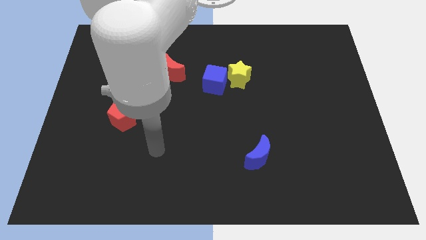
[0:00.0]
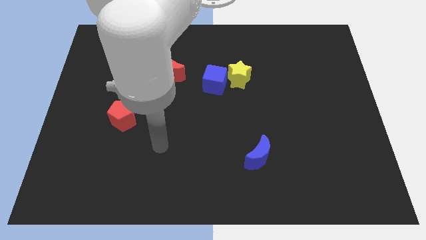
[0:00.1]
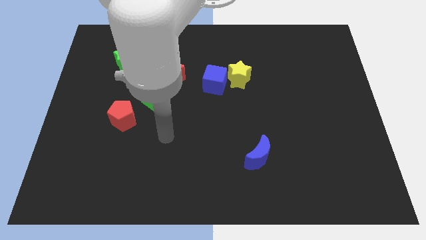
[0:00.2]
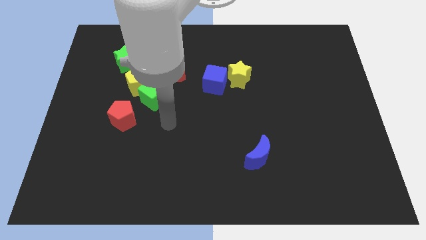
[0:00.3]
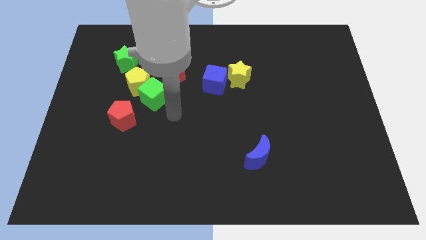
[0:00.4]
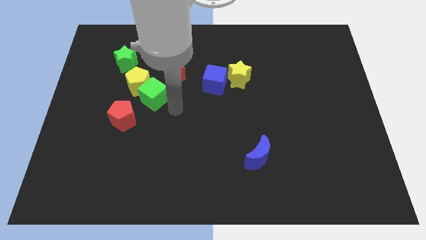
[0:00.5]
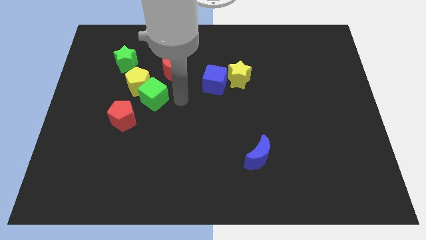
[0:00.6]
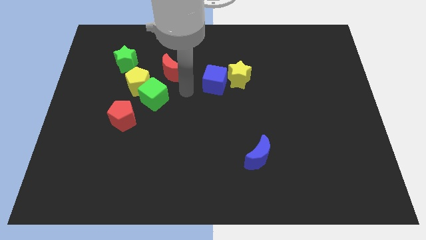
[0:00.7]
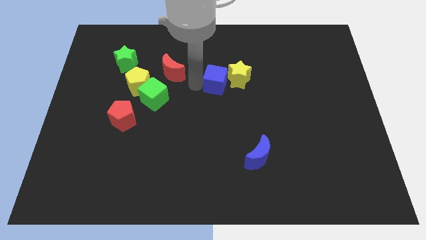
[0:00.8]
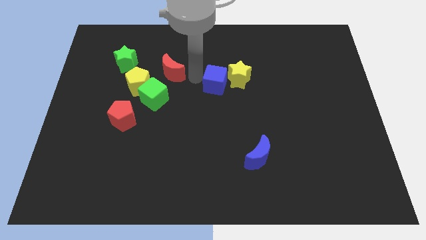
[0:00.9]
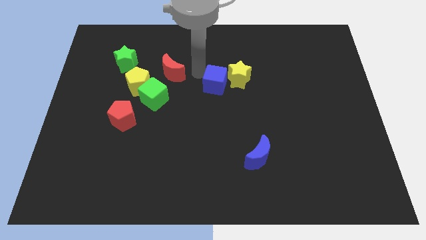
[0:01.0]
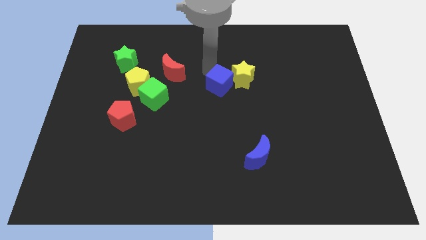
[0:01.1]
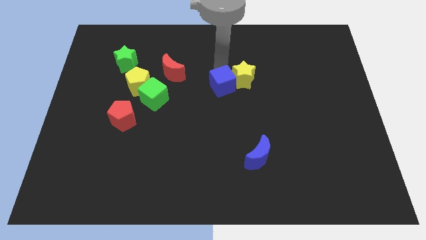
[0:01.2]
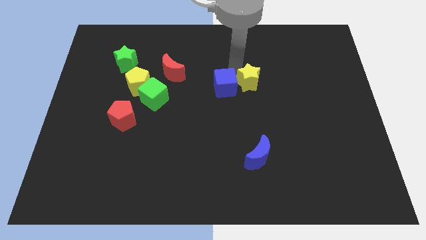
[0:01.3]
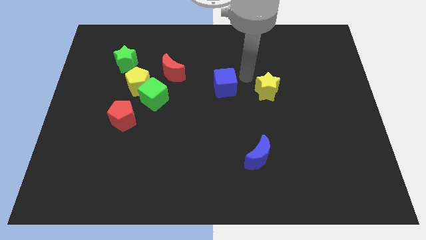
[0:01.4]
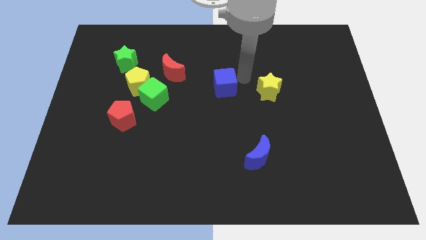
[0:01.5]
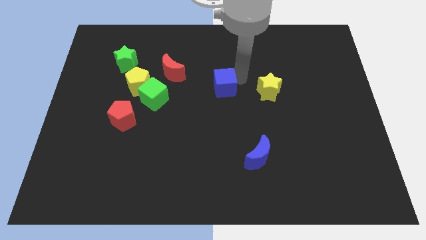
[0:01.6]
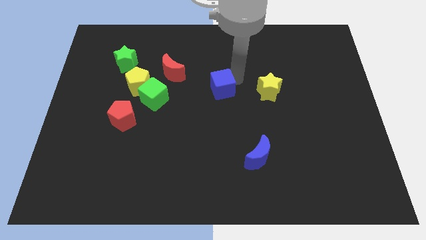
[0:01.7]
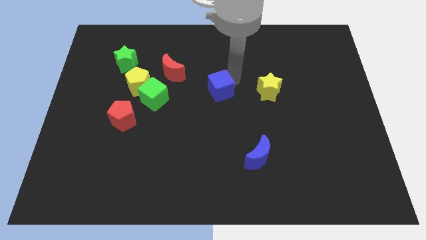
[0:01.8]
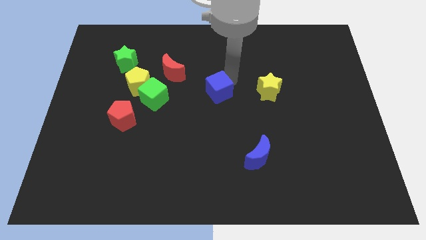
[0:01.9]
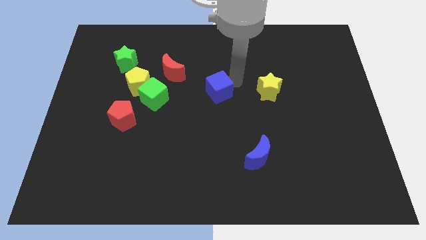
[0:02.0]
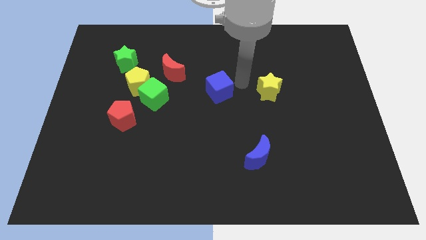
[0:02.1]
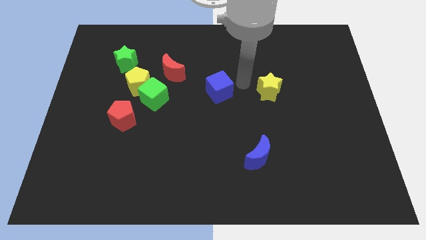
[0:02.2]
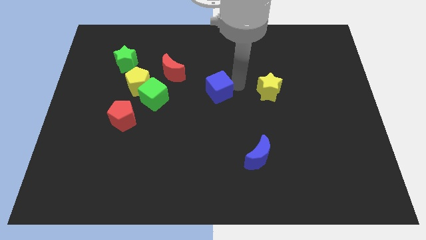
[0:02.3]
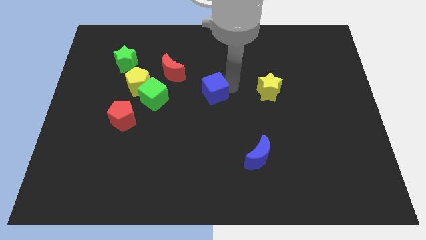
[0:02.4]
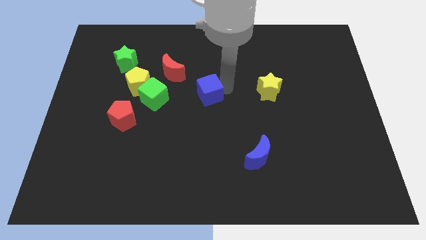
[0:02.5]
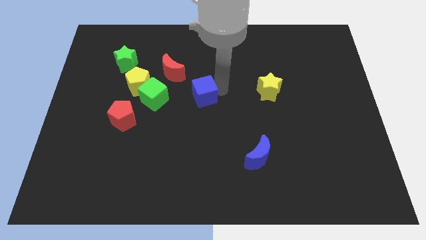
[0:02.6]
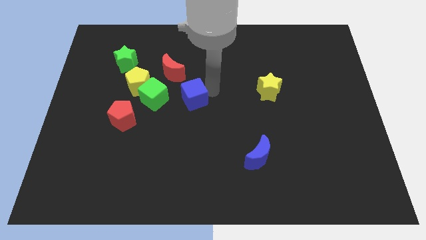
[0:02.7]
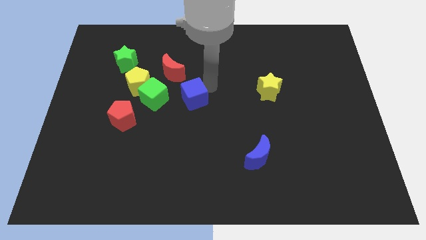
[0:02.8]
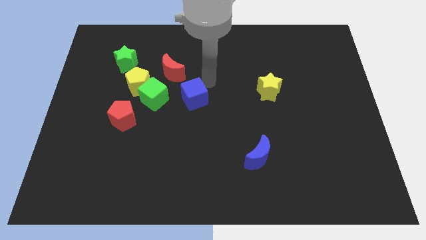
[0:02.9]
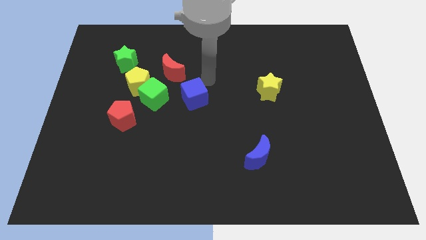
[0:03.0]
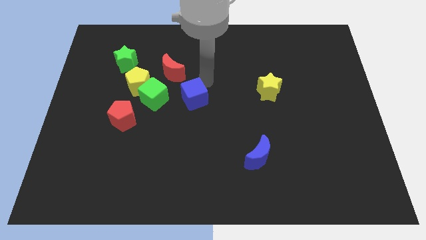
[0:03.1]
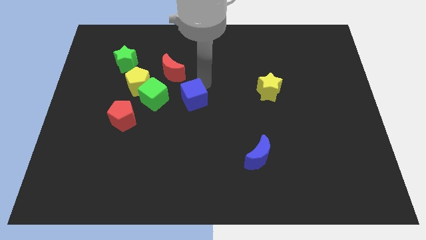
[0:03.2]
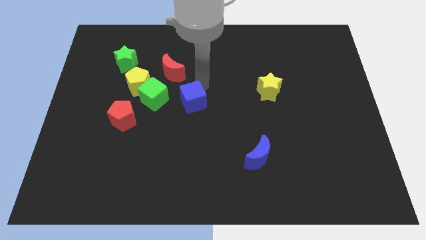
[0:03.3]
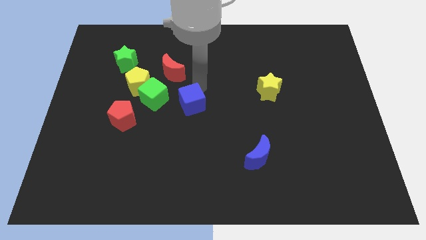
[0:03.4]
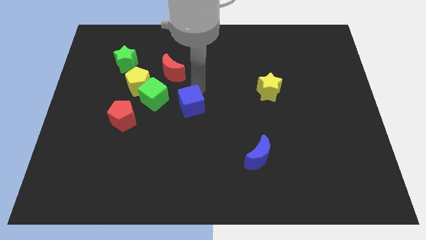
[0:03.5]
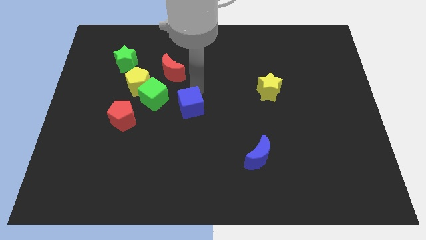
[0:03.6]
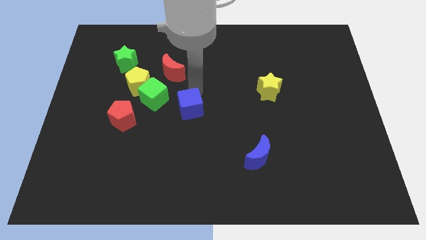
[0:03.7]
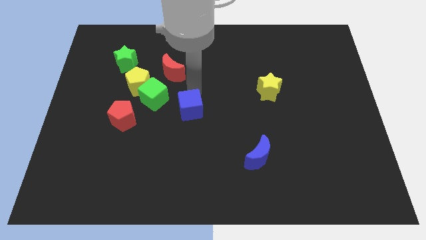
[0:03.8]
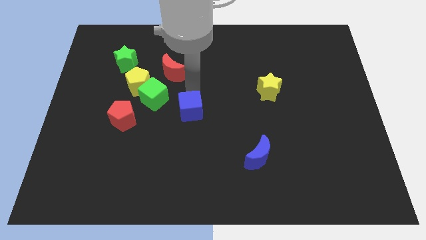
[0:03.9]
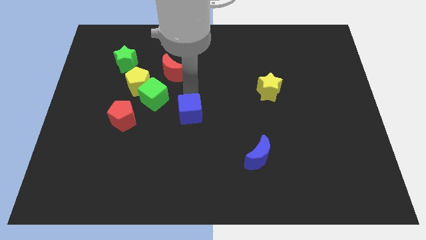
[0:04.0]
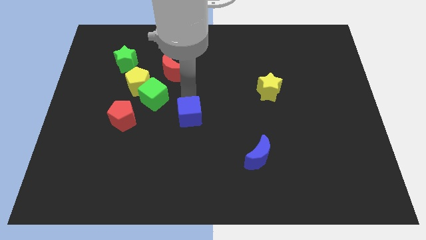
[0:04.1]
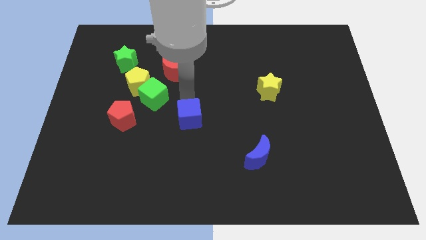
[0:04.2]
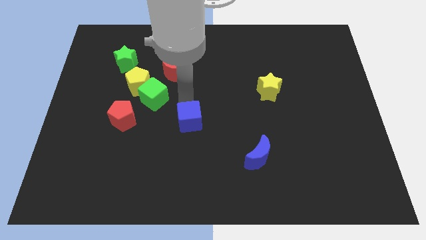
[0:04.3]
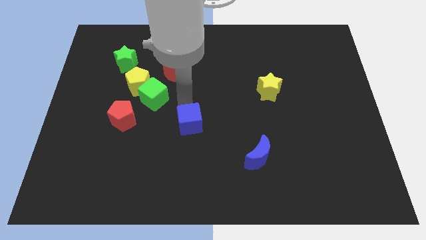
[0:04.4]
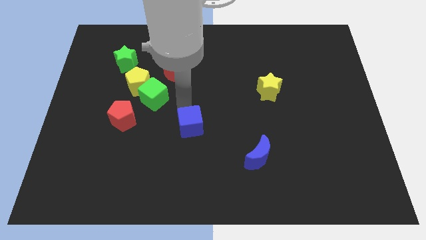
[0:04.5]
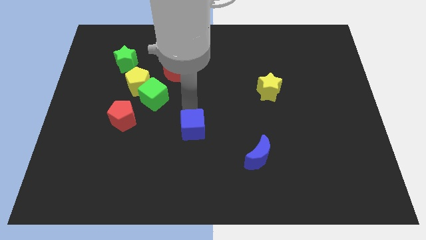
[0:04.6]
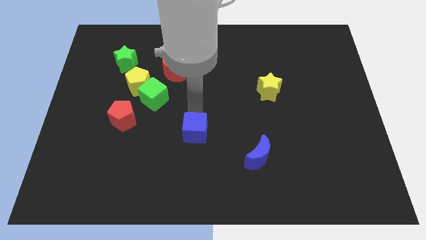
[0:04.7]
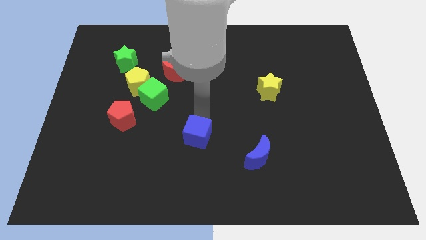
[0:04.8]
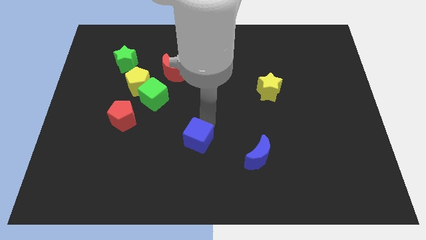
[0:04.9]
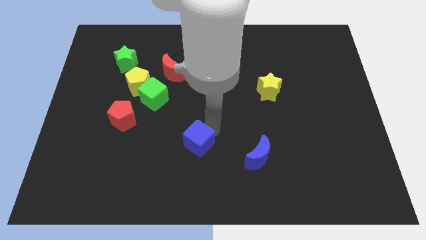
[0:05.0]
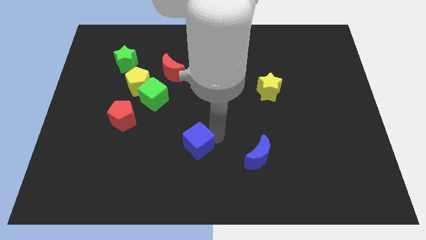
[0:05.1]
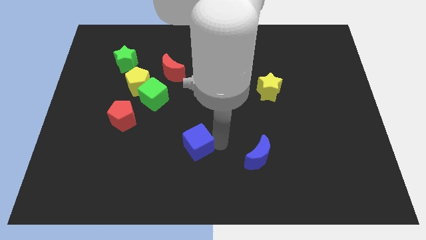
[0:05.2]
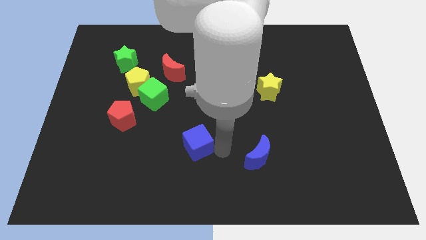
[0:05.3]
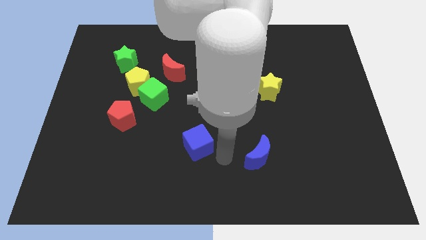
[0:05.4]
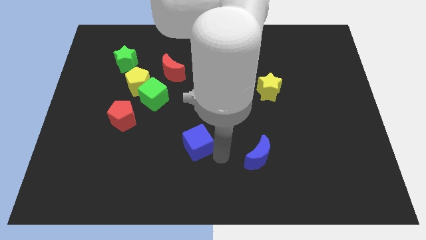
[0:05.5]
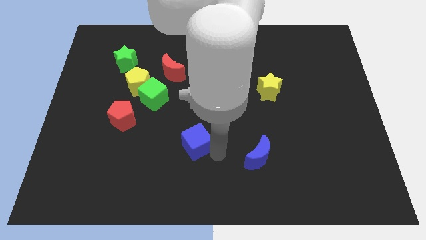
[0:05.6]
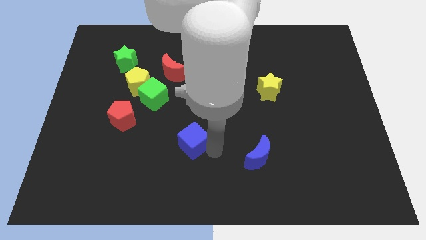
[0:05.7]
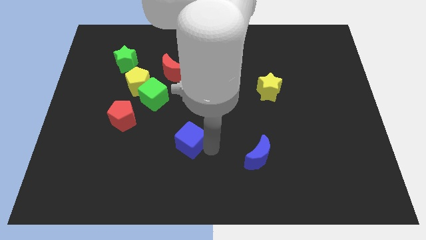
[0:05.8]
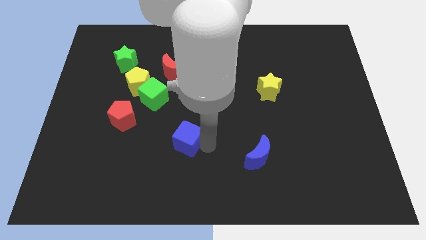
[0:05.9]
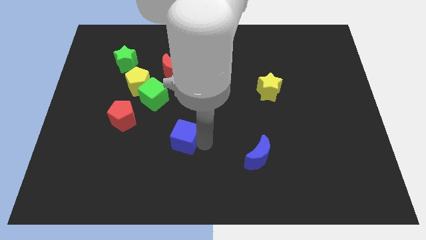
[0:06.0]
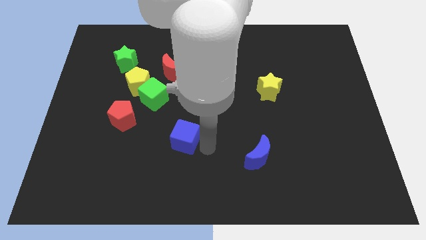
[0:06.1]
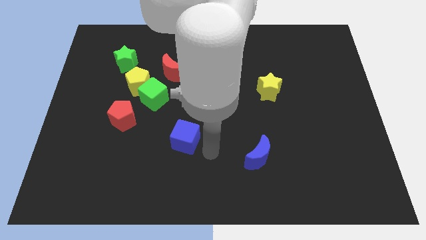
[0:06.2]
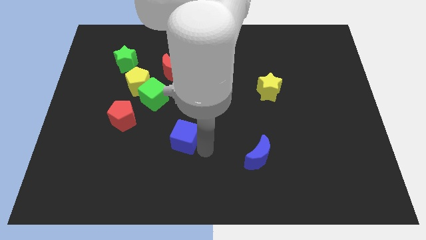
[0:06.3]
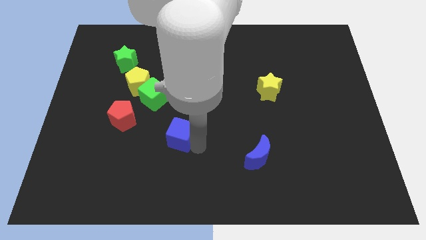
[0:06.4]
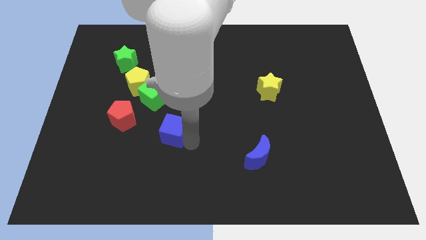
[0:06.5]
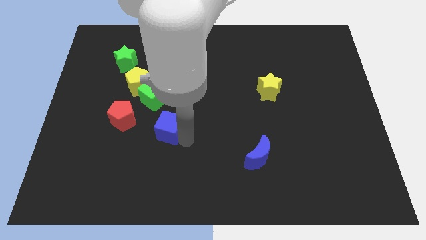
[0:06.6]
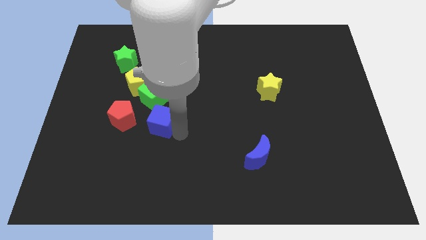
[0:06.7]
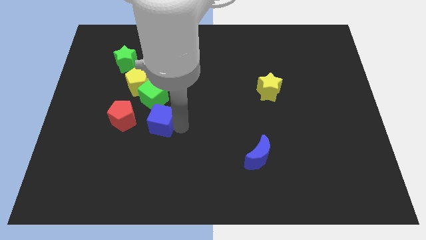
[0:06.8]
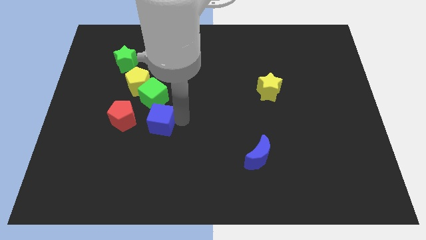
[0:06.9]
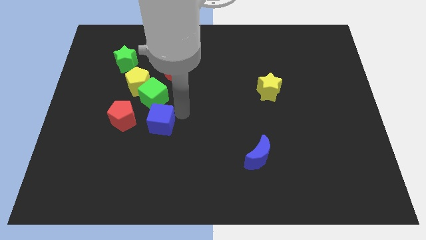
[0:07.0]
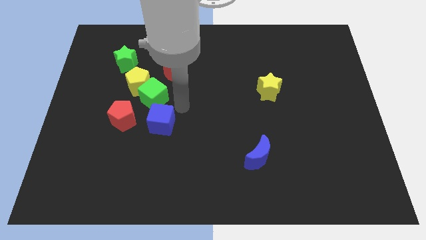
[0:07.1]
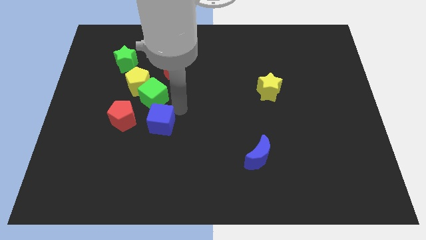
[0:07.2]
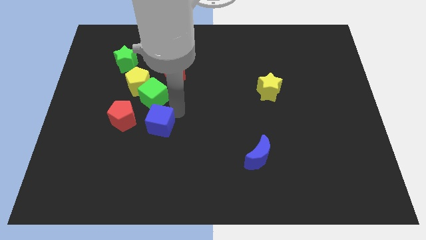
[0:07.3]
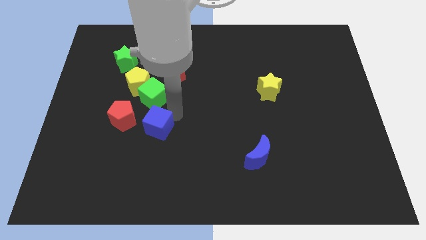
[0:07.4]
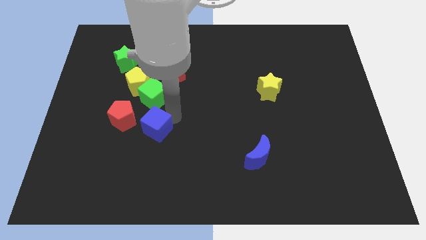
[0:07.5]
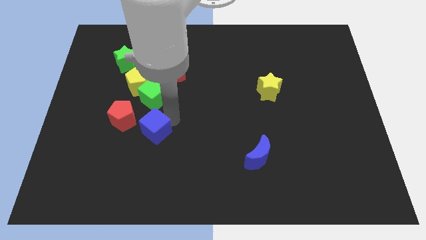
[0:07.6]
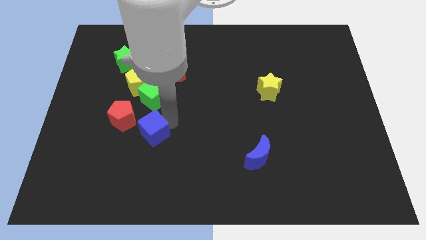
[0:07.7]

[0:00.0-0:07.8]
move the blue cube diagonally down and left

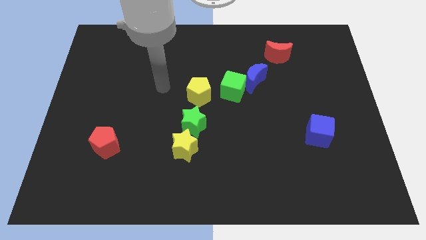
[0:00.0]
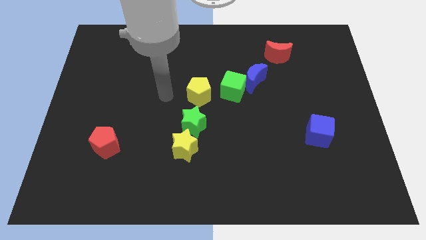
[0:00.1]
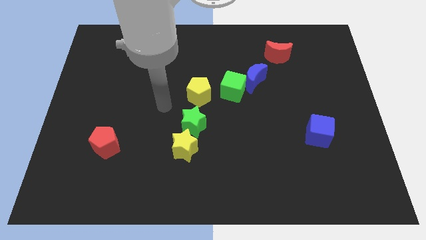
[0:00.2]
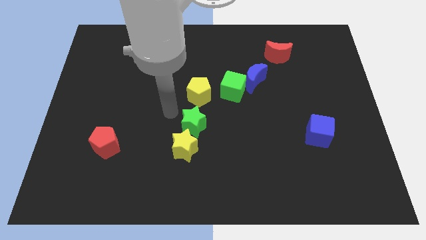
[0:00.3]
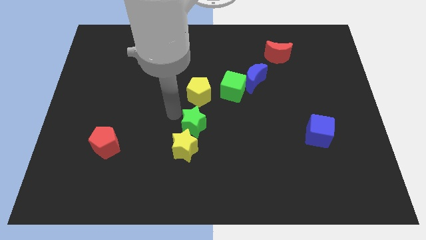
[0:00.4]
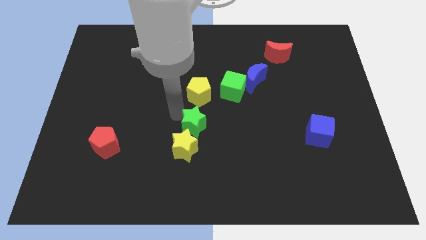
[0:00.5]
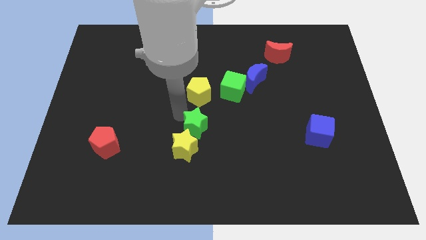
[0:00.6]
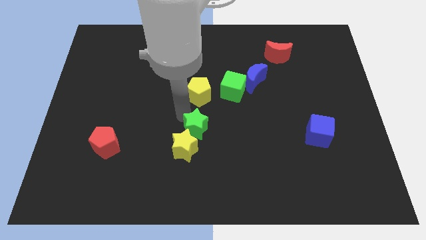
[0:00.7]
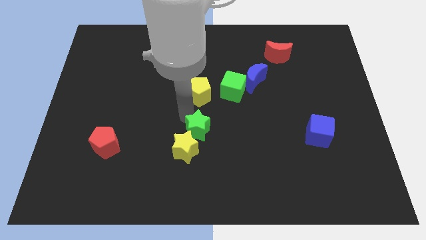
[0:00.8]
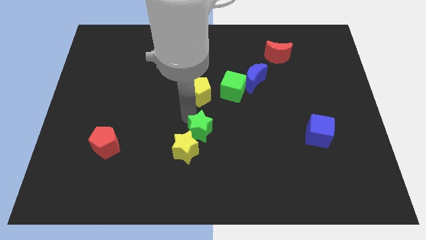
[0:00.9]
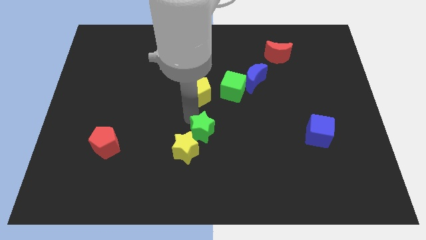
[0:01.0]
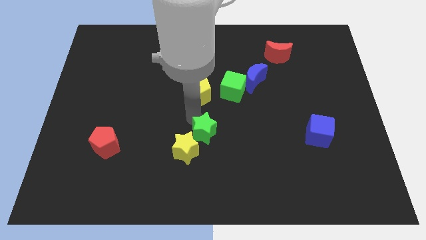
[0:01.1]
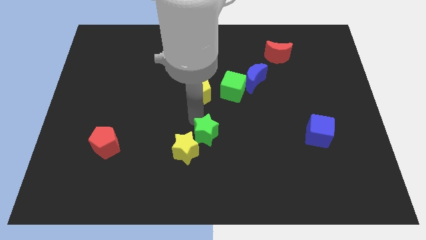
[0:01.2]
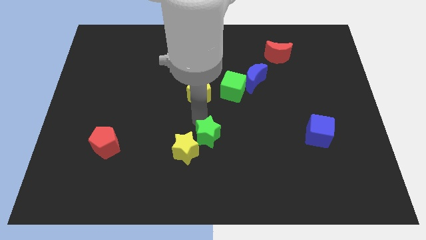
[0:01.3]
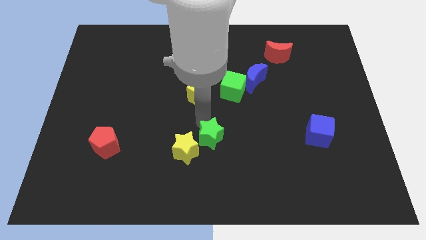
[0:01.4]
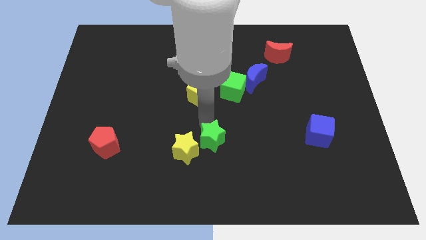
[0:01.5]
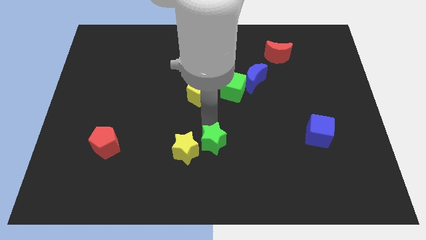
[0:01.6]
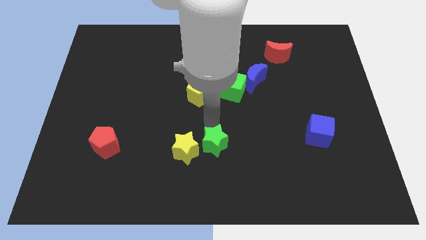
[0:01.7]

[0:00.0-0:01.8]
slightly push the green star down and right diagonally
